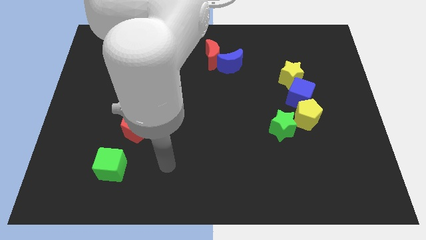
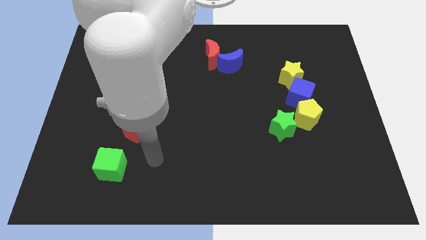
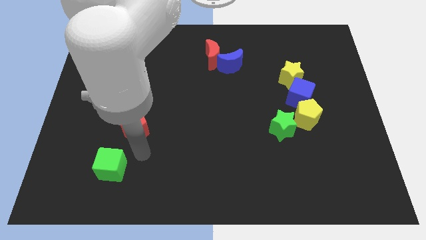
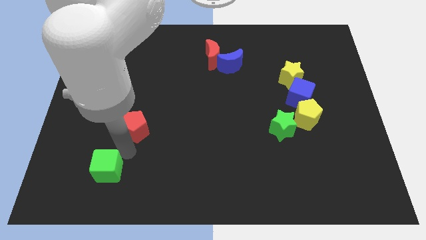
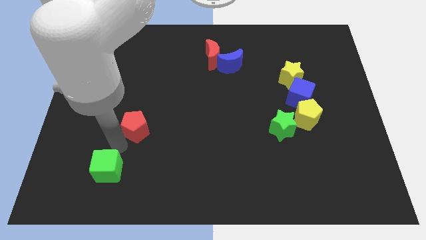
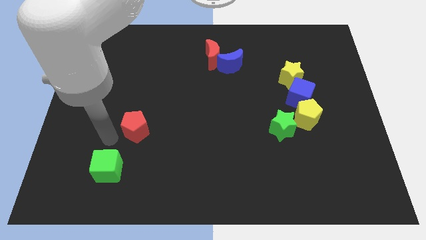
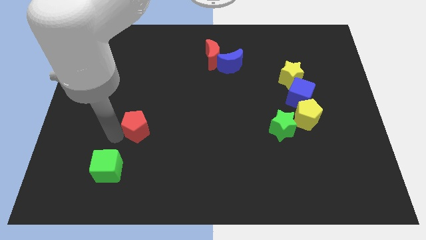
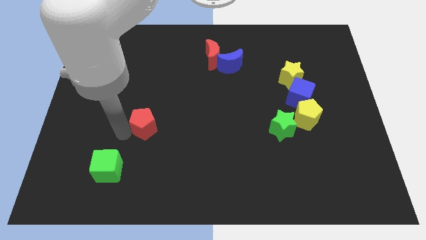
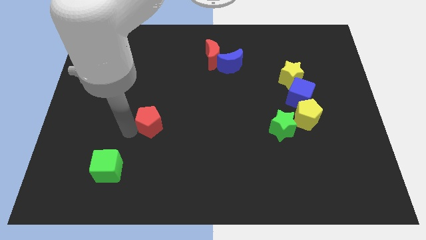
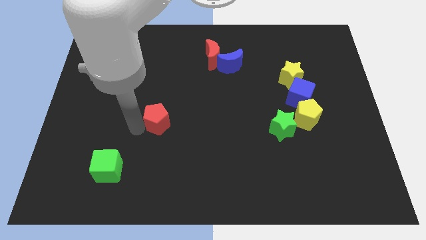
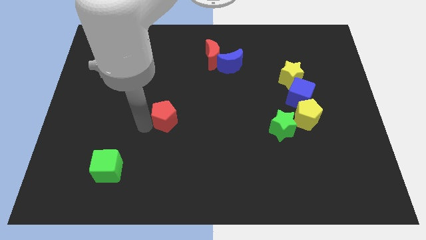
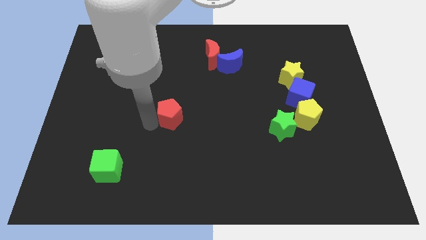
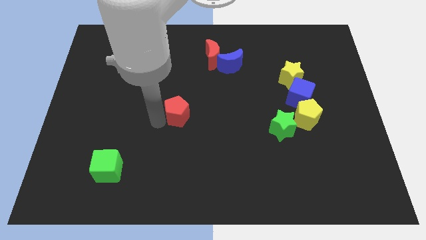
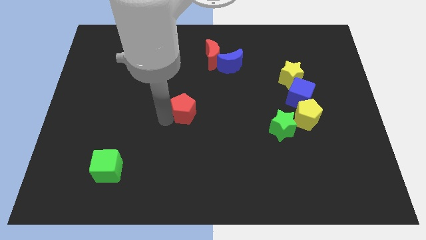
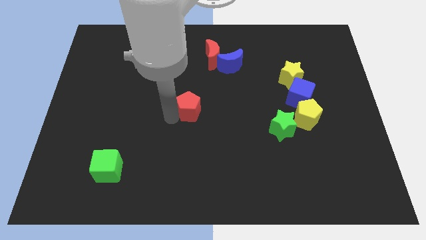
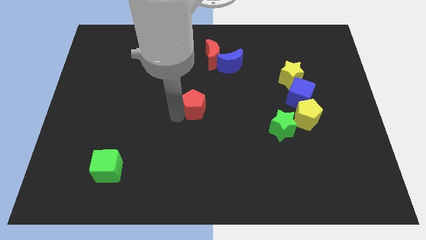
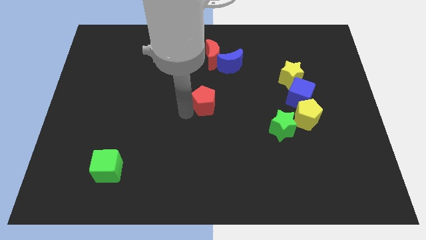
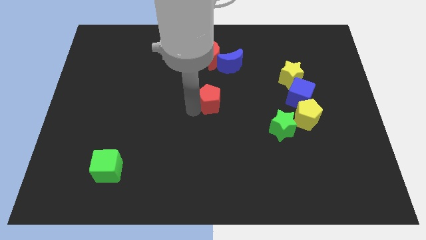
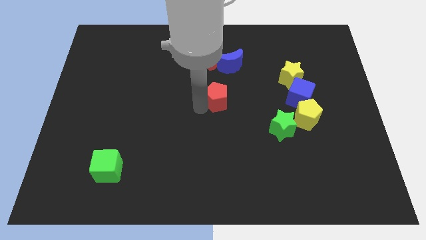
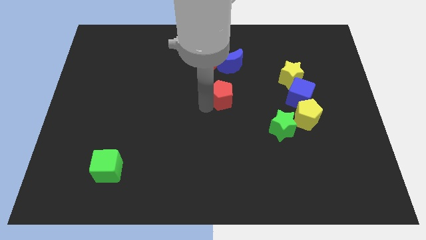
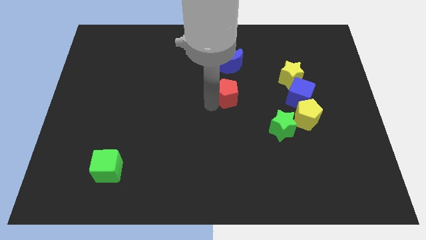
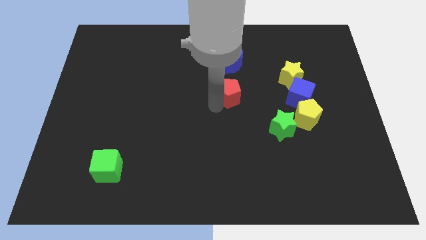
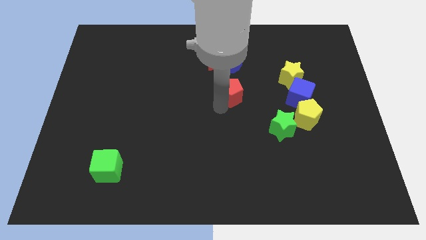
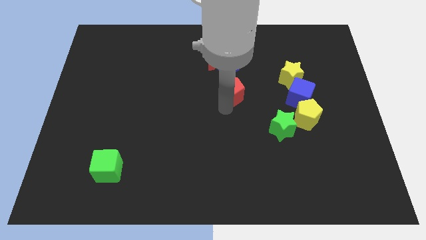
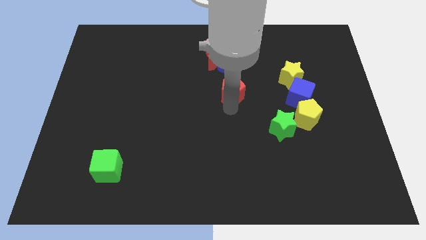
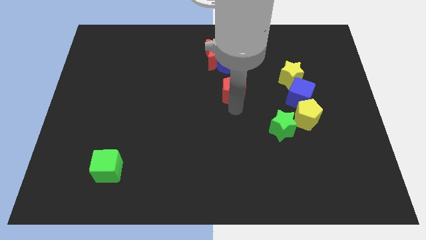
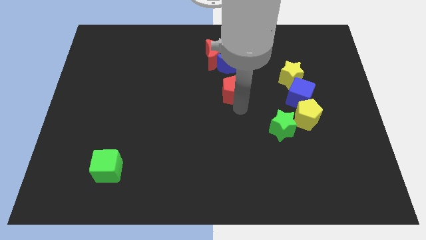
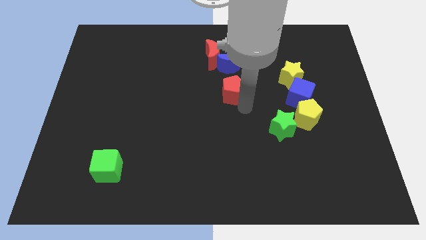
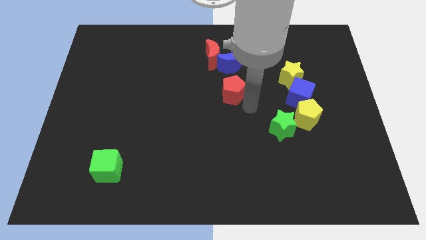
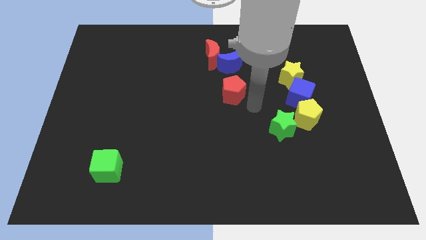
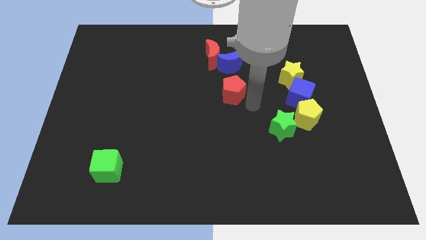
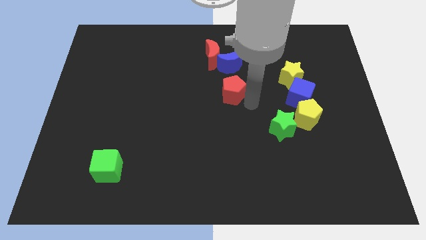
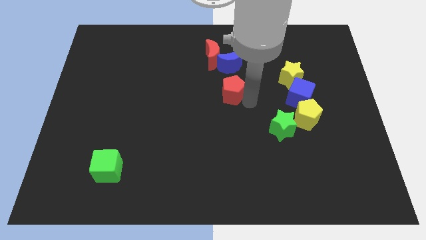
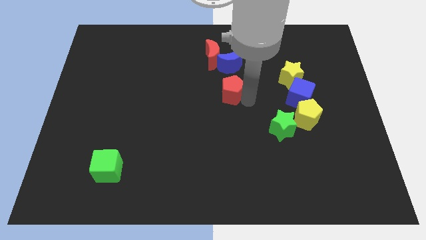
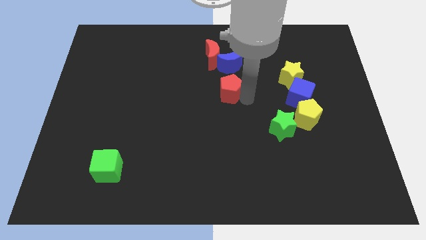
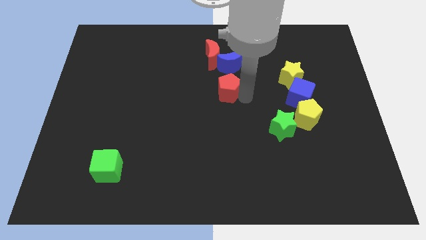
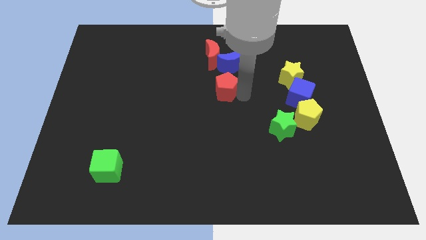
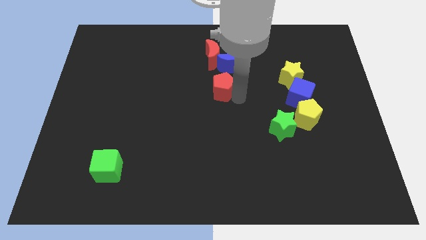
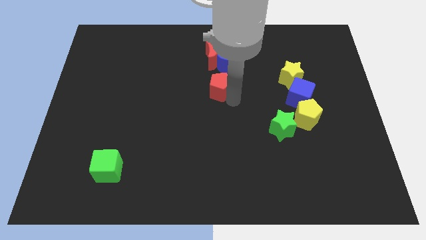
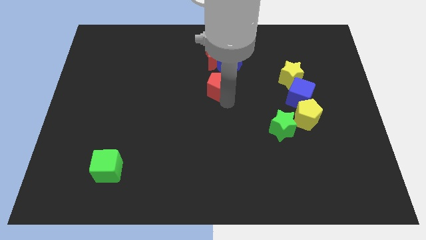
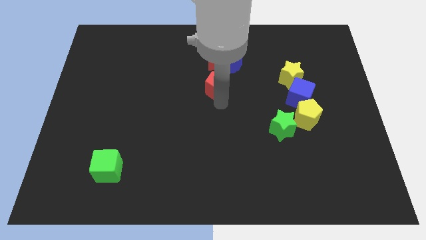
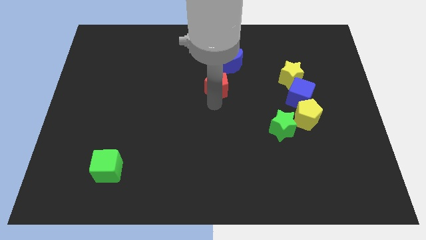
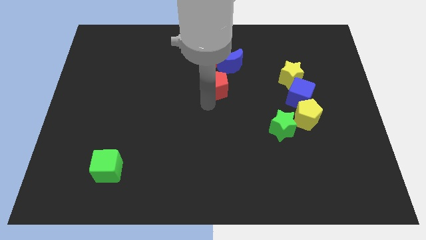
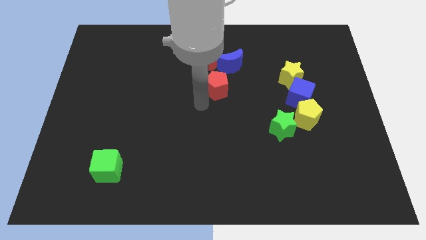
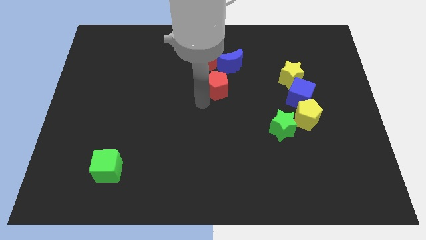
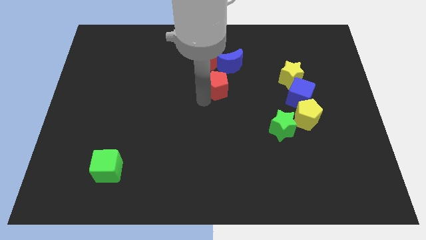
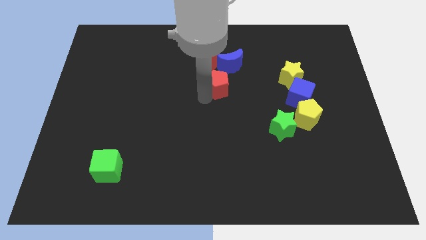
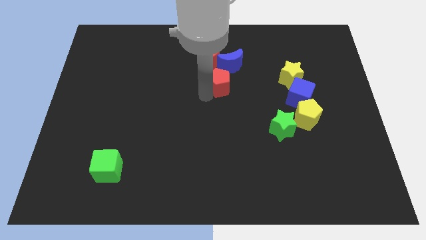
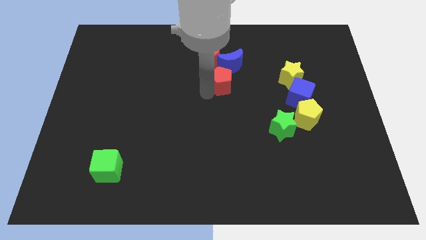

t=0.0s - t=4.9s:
put the red pentagon diagonally down and to the right of the red moon

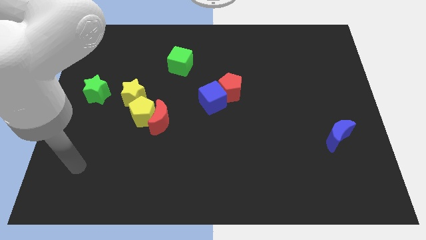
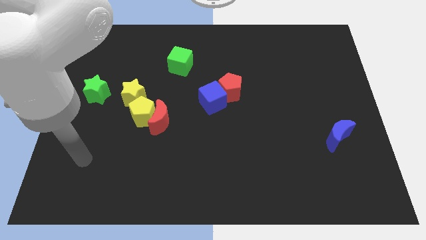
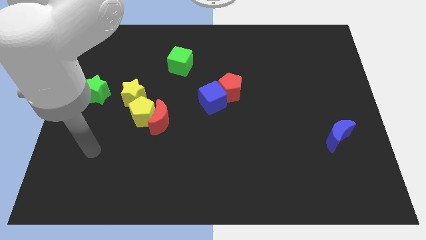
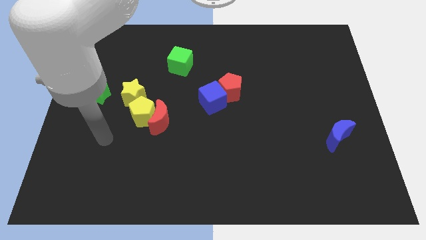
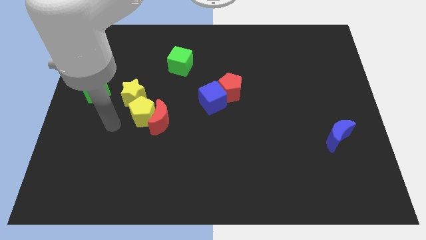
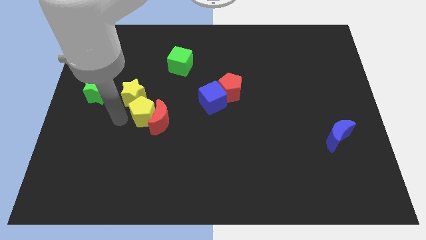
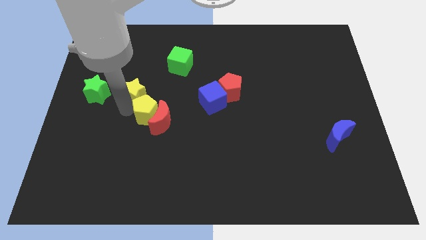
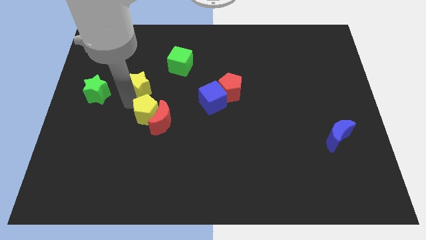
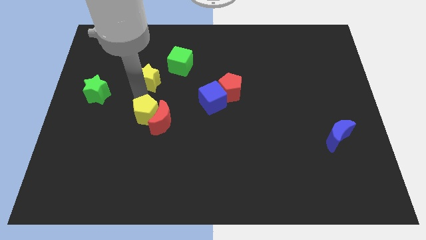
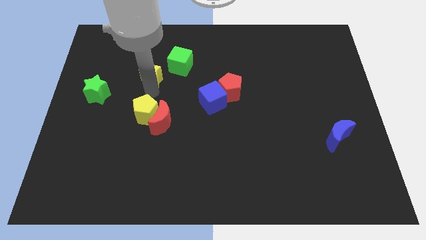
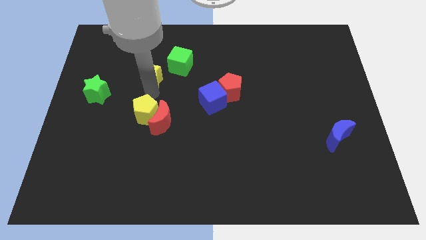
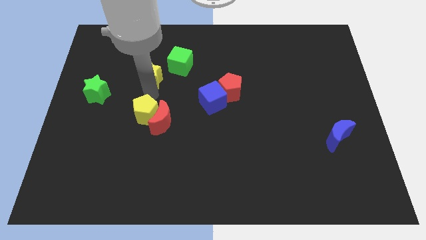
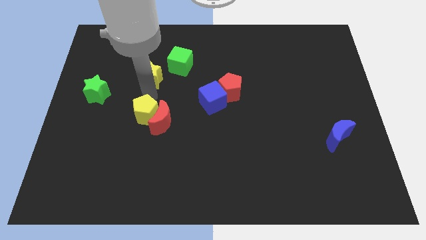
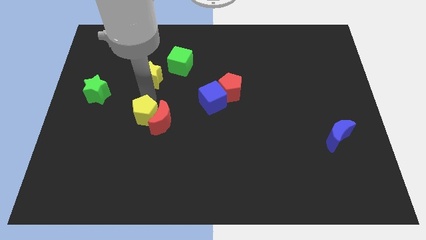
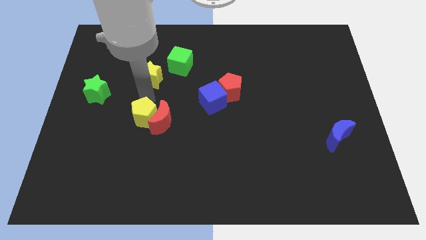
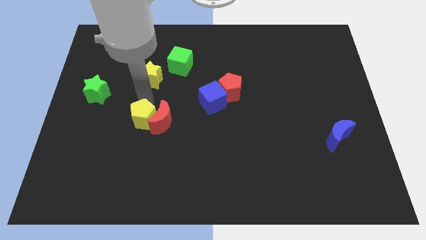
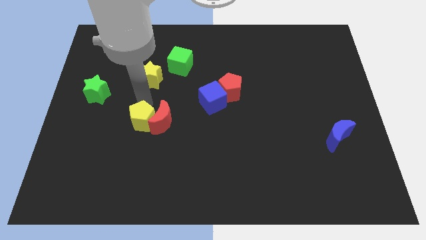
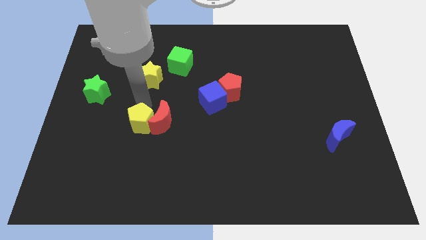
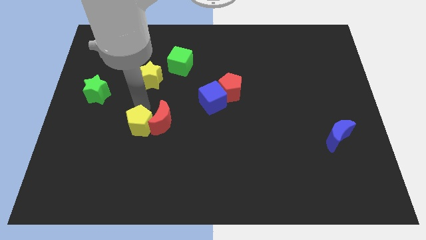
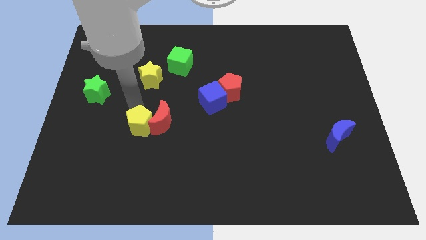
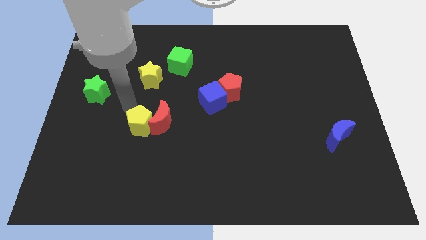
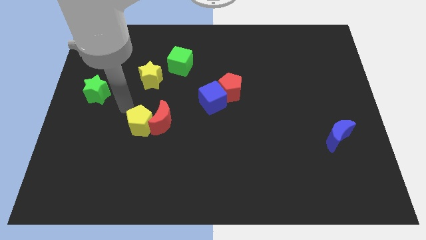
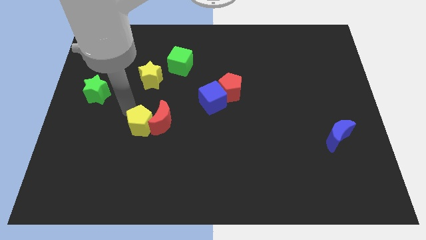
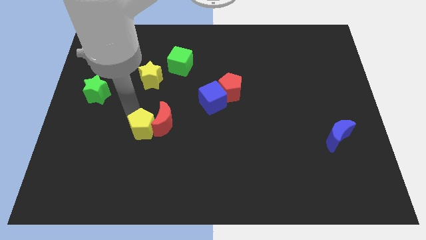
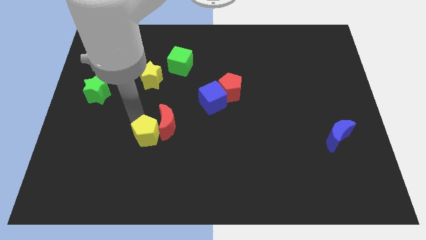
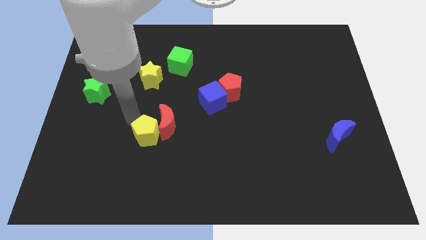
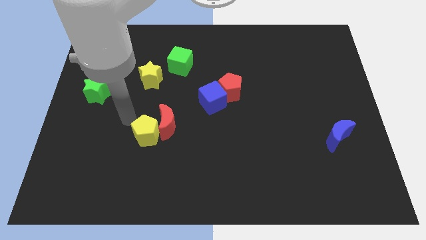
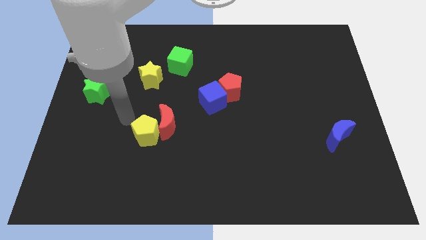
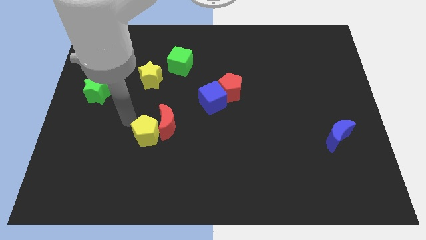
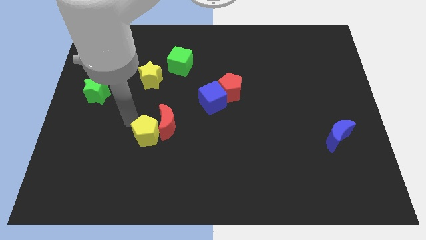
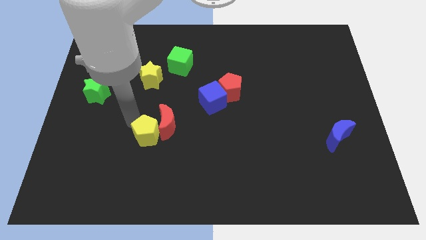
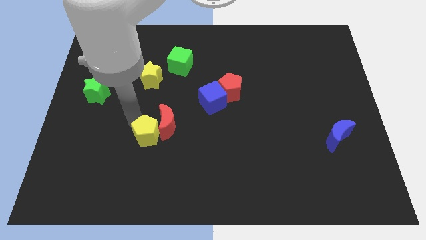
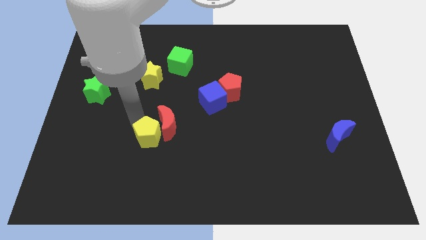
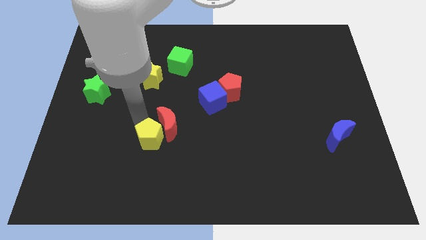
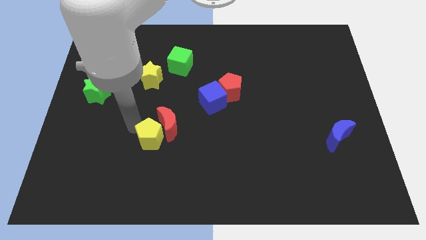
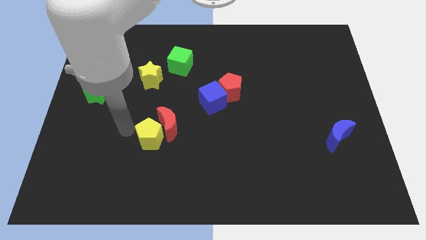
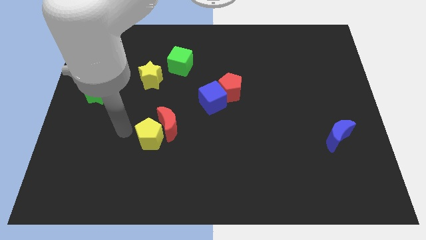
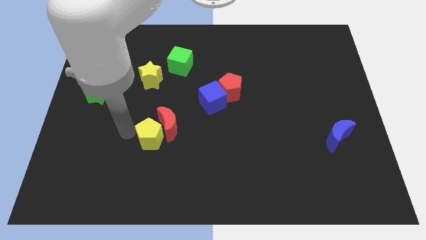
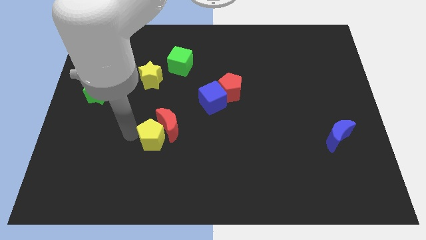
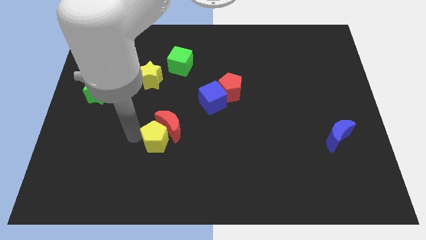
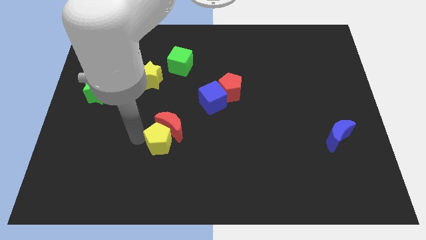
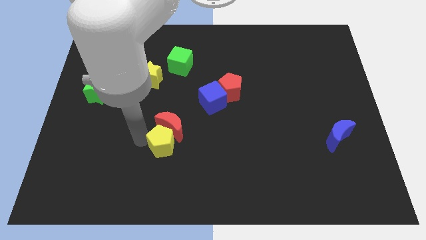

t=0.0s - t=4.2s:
move the yellow pentagon diagonally down and to the right of the red moon
